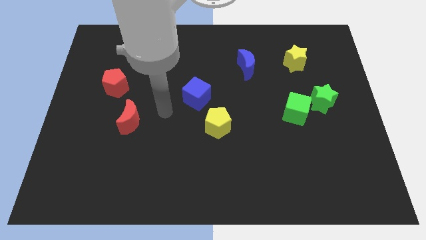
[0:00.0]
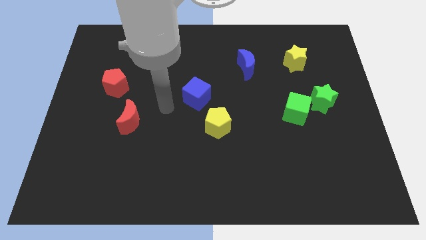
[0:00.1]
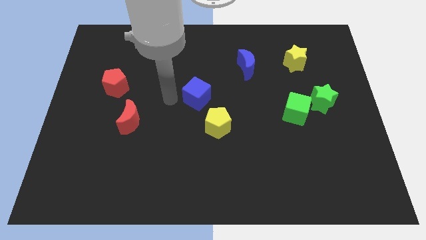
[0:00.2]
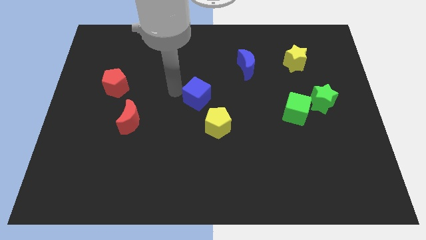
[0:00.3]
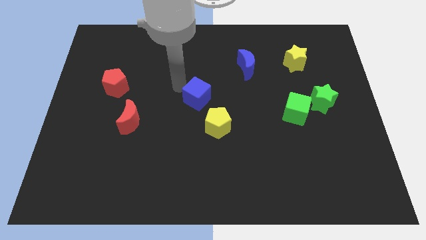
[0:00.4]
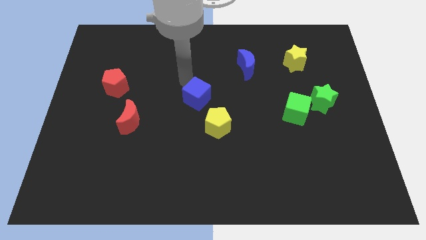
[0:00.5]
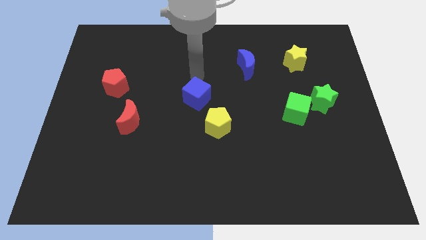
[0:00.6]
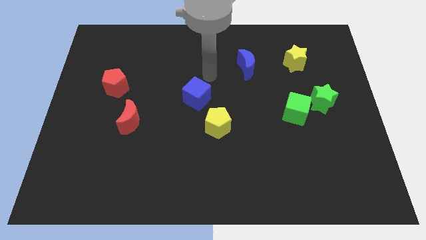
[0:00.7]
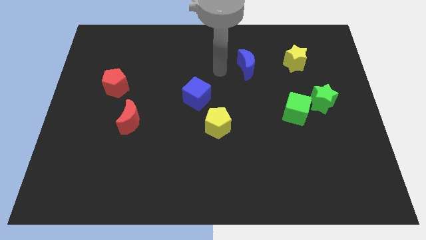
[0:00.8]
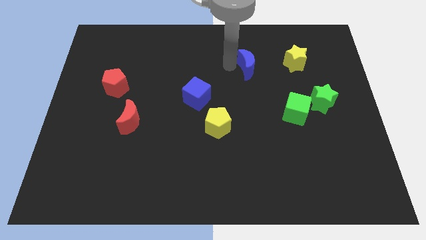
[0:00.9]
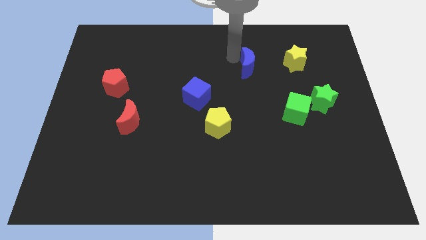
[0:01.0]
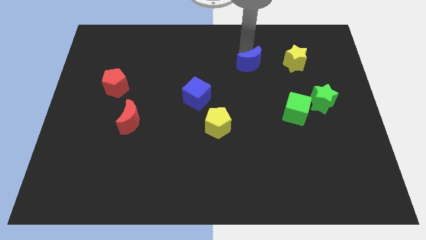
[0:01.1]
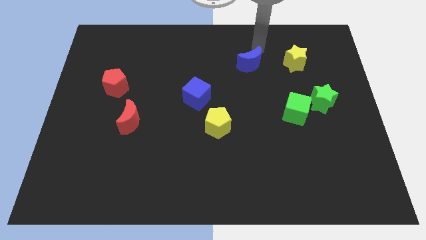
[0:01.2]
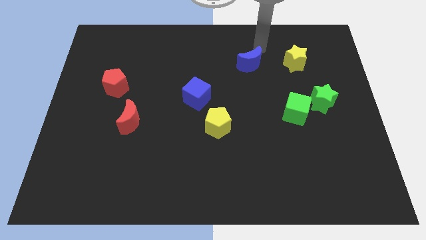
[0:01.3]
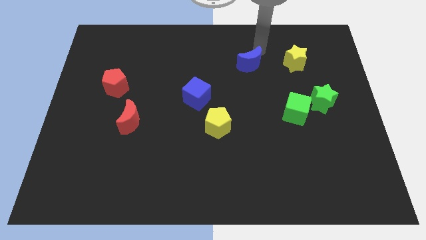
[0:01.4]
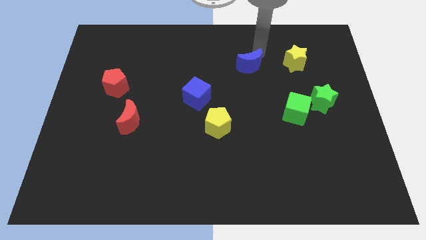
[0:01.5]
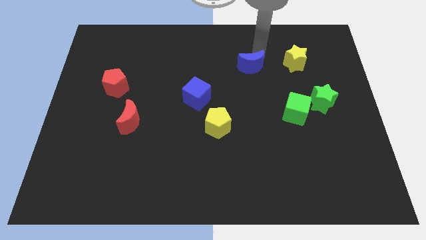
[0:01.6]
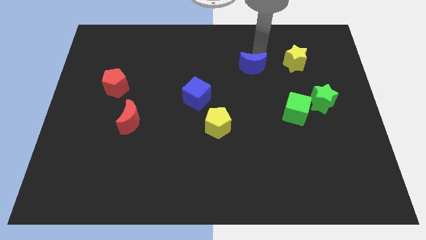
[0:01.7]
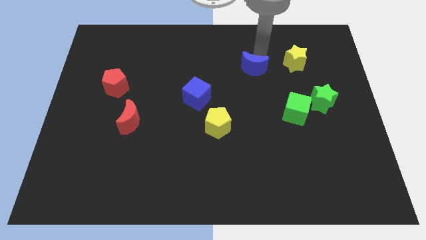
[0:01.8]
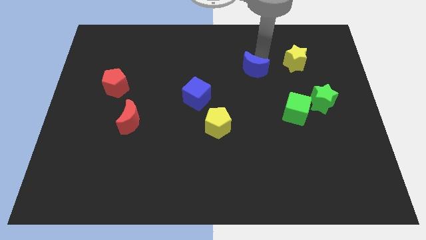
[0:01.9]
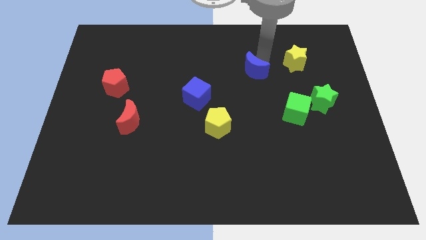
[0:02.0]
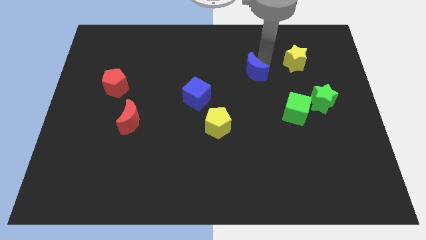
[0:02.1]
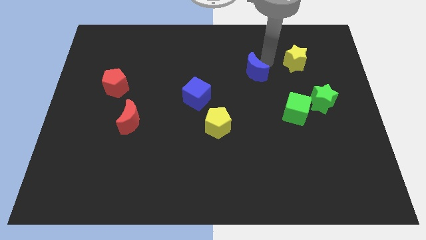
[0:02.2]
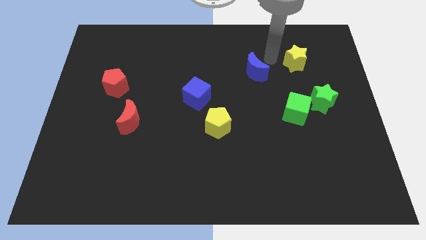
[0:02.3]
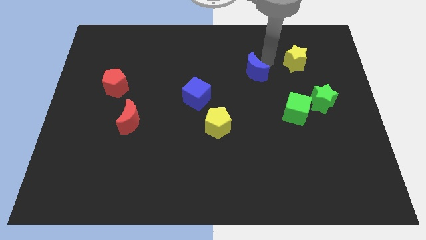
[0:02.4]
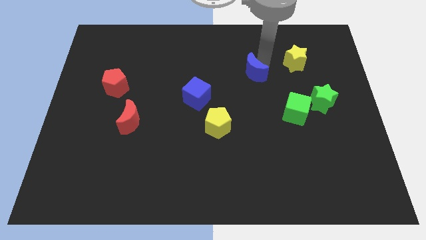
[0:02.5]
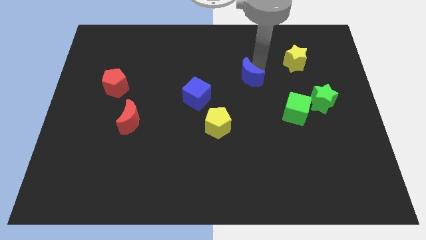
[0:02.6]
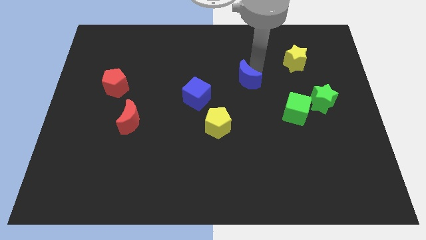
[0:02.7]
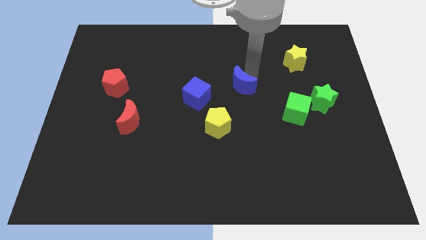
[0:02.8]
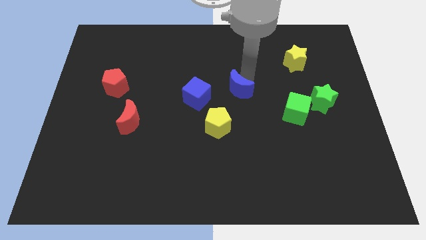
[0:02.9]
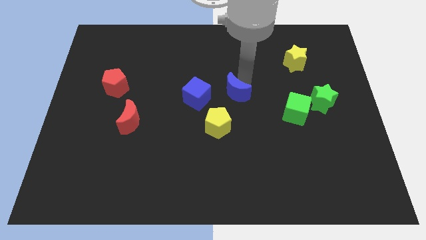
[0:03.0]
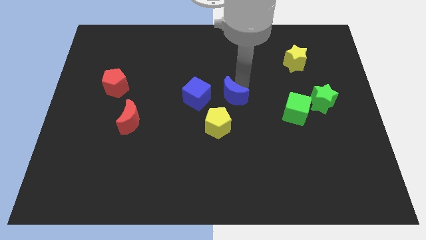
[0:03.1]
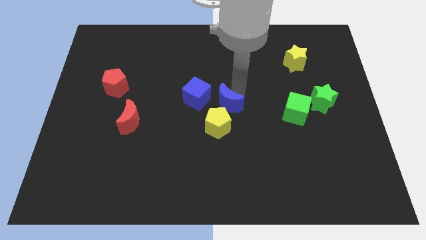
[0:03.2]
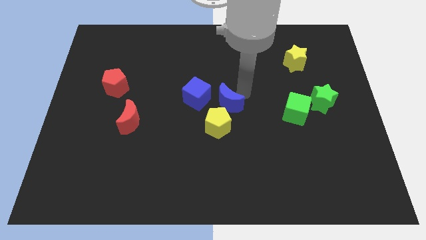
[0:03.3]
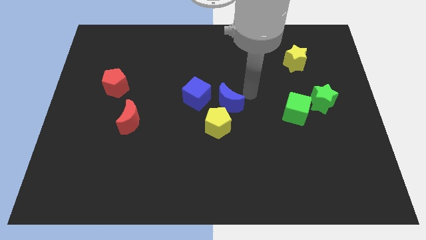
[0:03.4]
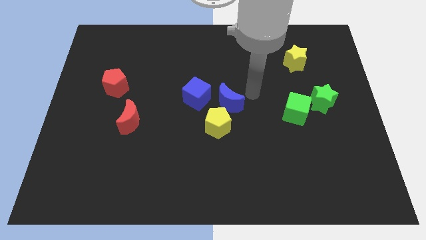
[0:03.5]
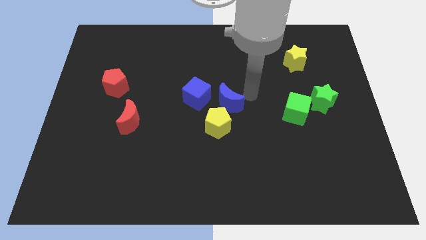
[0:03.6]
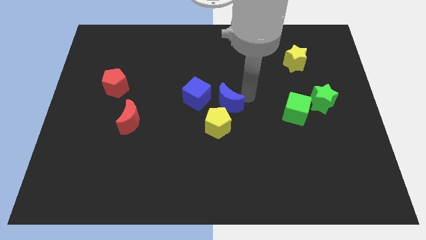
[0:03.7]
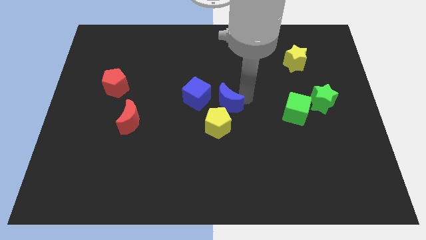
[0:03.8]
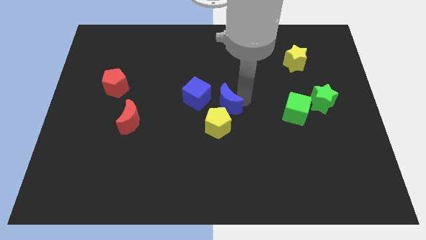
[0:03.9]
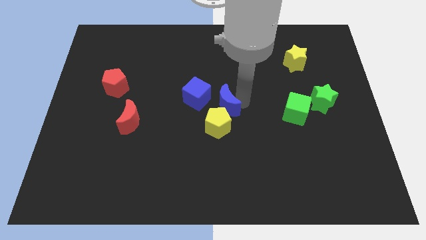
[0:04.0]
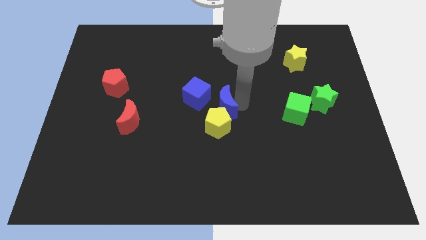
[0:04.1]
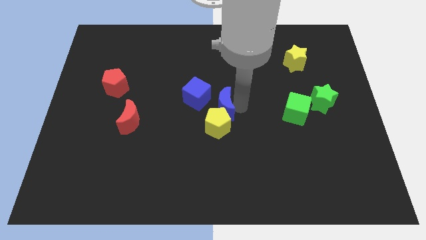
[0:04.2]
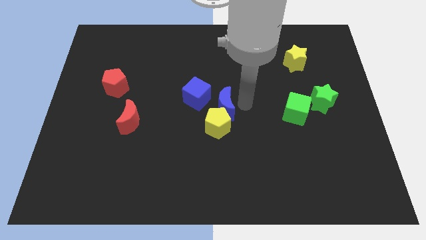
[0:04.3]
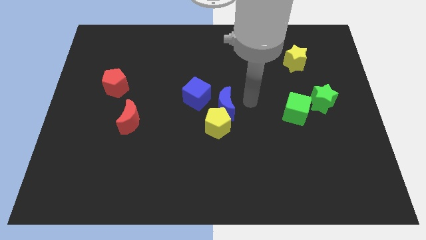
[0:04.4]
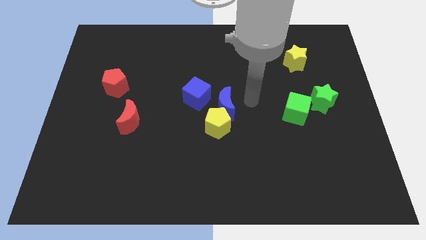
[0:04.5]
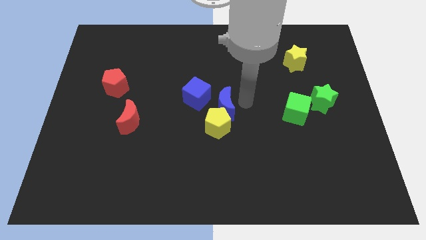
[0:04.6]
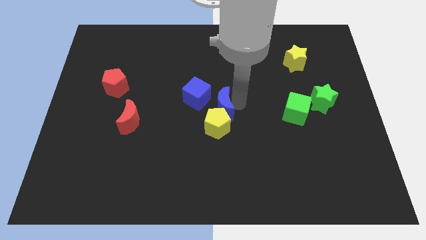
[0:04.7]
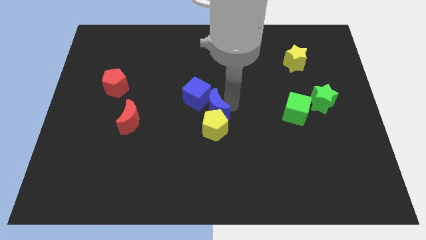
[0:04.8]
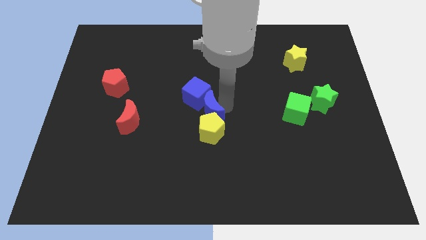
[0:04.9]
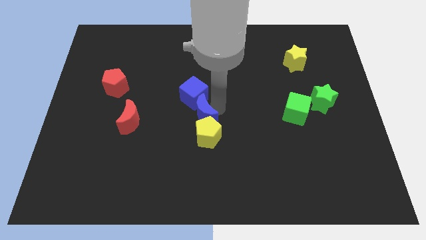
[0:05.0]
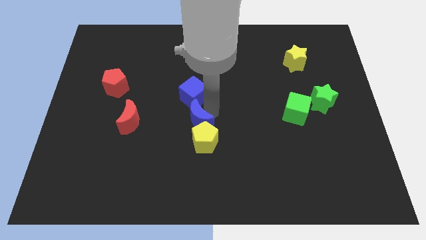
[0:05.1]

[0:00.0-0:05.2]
push the blue moon downwards and then to the left

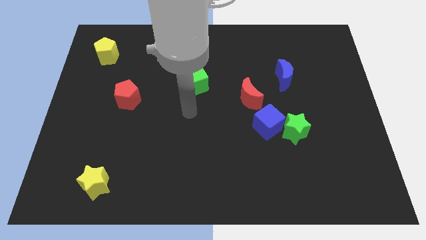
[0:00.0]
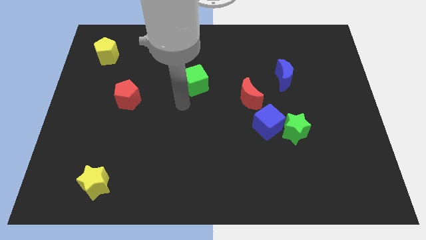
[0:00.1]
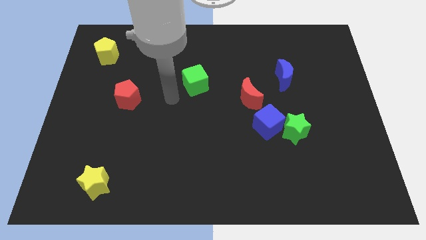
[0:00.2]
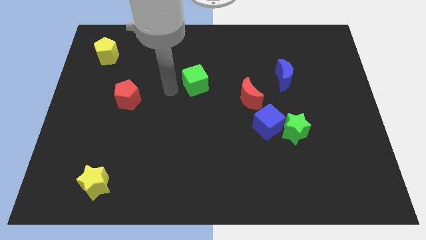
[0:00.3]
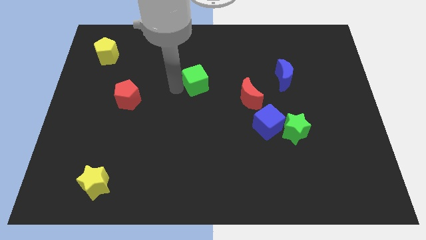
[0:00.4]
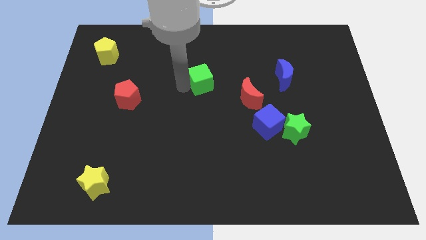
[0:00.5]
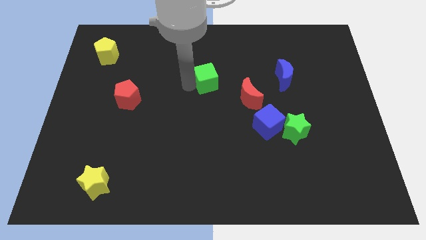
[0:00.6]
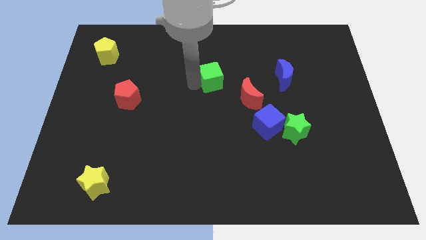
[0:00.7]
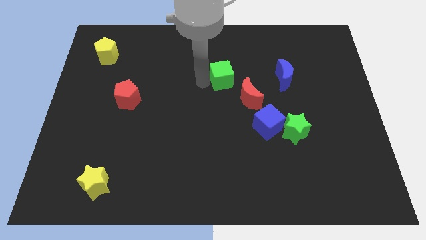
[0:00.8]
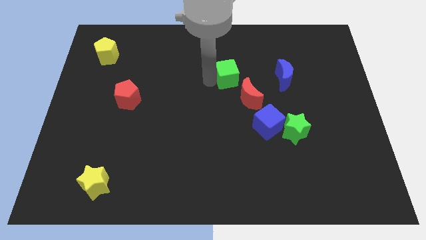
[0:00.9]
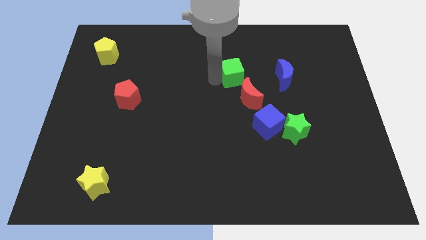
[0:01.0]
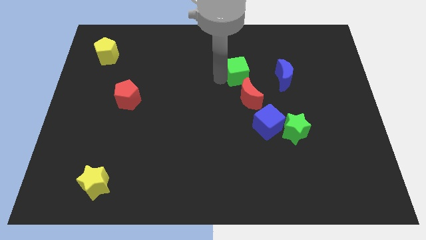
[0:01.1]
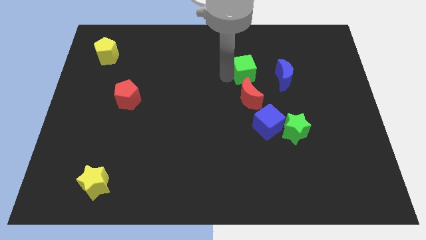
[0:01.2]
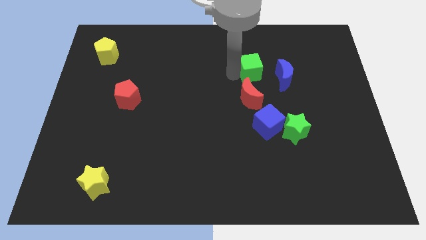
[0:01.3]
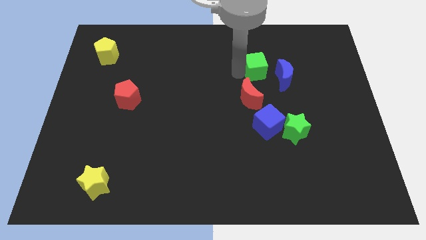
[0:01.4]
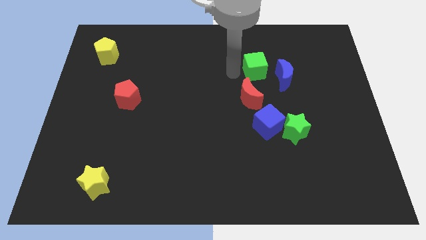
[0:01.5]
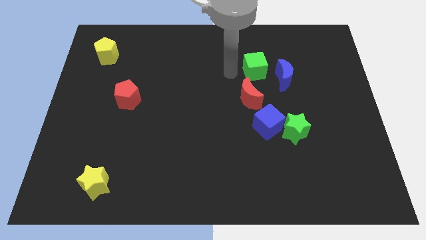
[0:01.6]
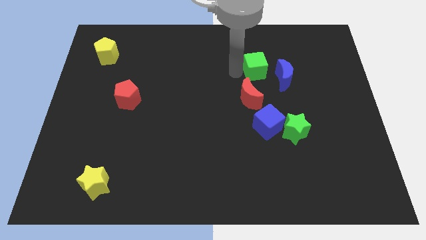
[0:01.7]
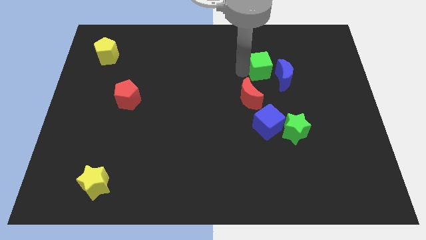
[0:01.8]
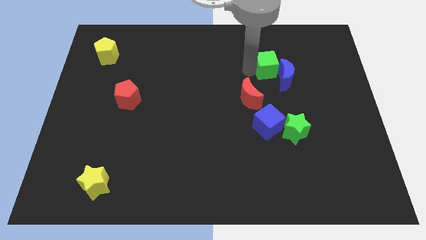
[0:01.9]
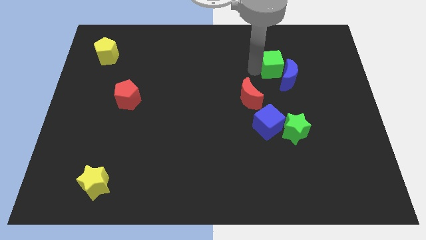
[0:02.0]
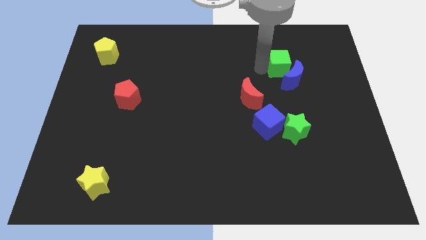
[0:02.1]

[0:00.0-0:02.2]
push the green cube right

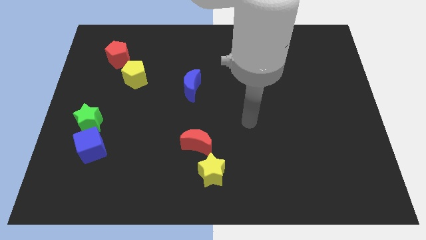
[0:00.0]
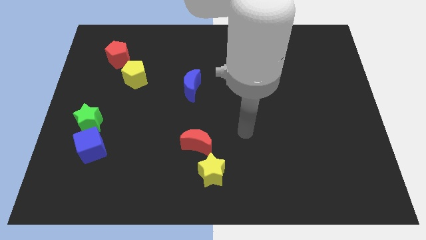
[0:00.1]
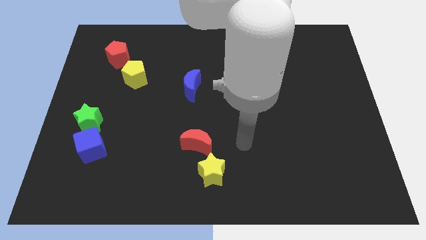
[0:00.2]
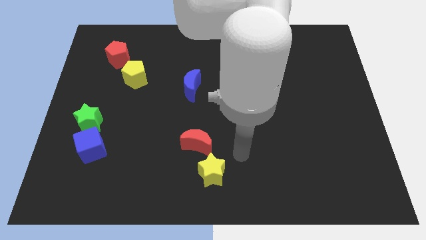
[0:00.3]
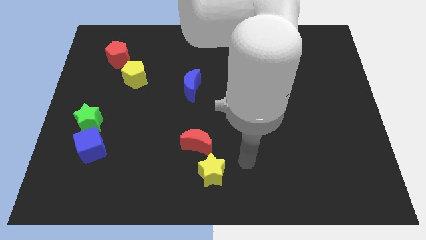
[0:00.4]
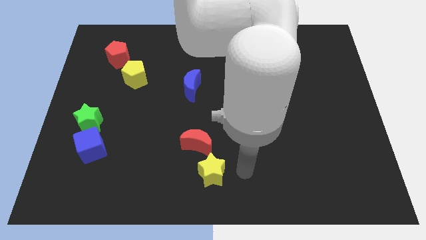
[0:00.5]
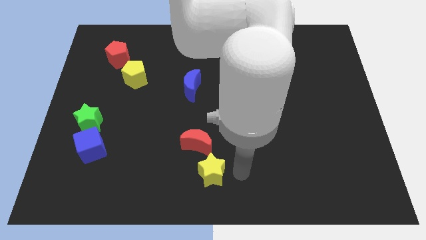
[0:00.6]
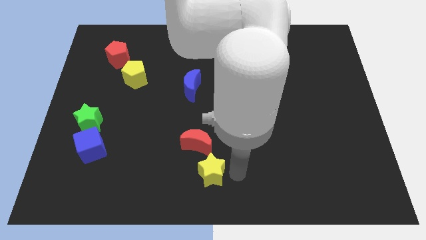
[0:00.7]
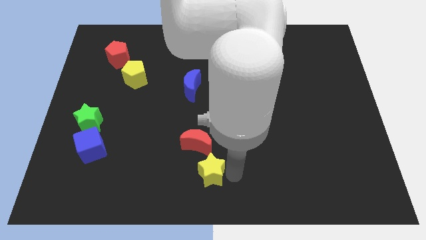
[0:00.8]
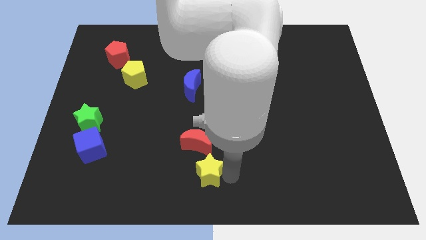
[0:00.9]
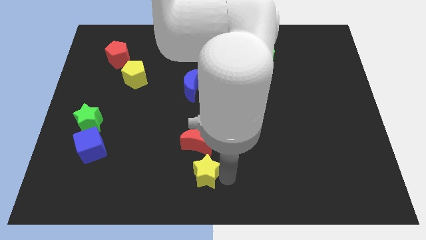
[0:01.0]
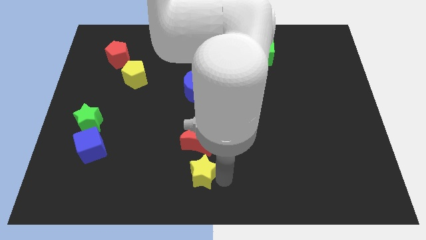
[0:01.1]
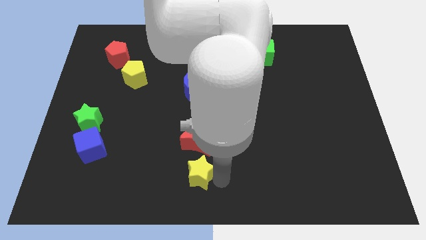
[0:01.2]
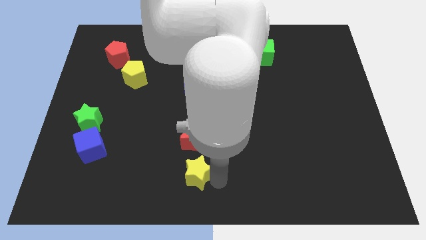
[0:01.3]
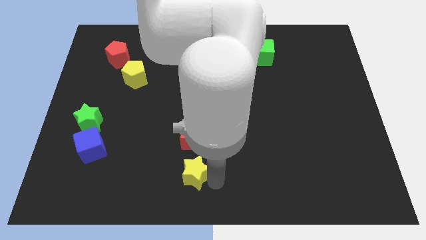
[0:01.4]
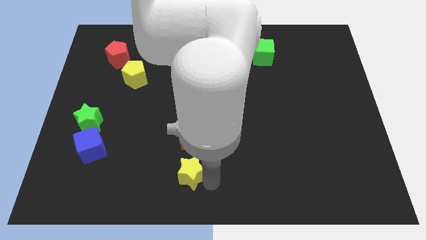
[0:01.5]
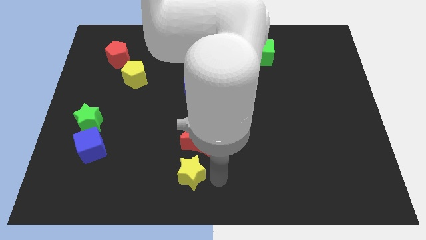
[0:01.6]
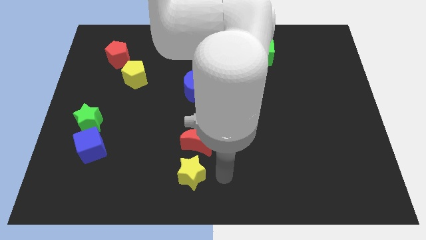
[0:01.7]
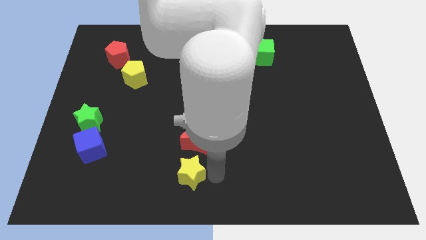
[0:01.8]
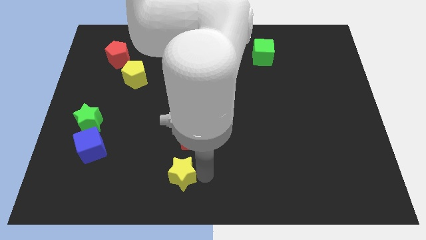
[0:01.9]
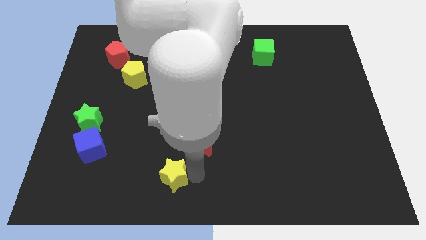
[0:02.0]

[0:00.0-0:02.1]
slightly move the yellow star to the left
